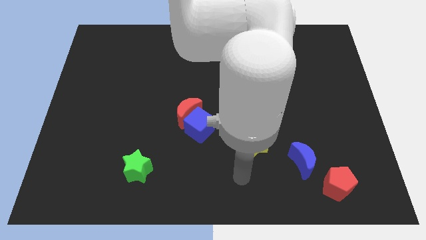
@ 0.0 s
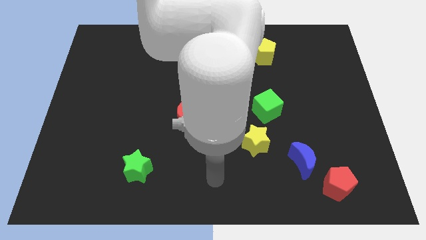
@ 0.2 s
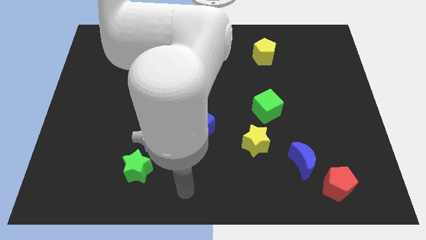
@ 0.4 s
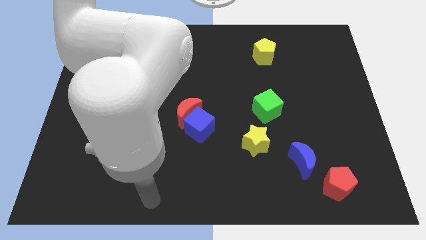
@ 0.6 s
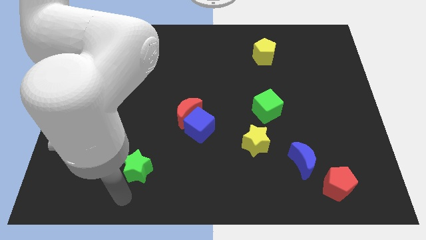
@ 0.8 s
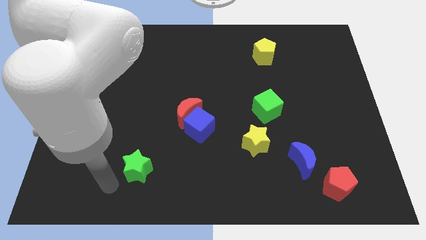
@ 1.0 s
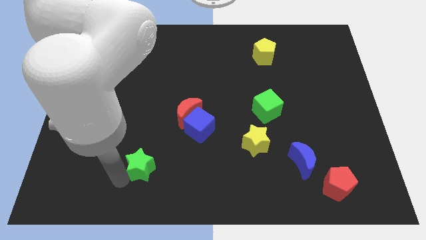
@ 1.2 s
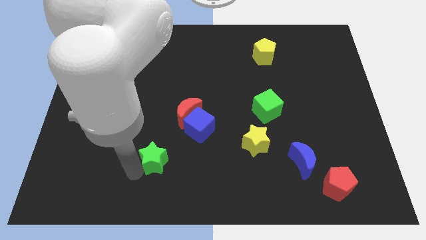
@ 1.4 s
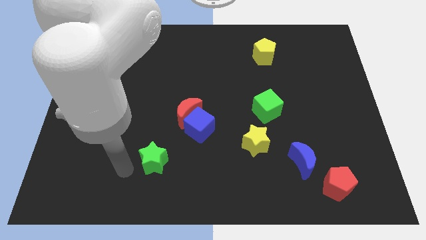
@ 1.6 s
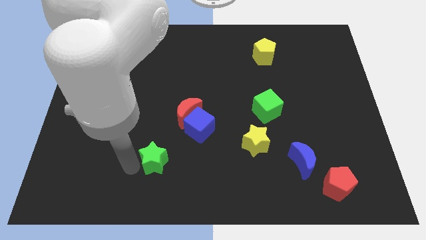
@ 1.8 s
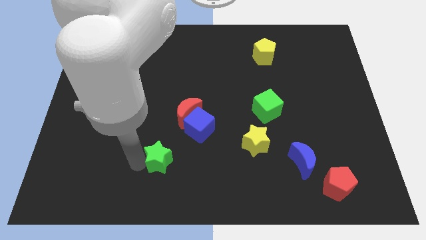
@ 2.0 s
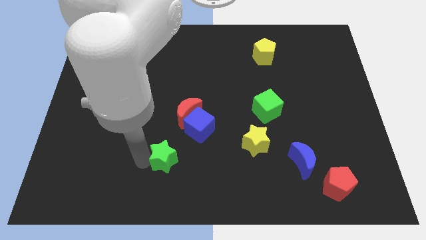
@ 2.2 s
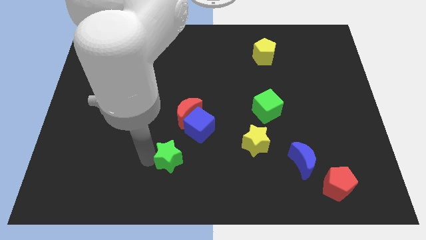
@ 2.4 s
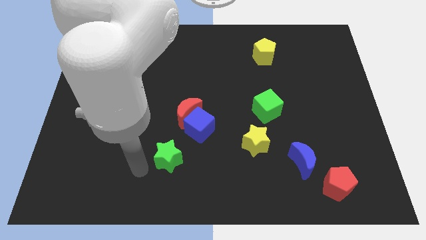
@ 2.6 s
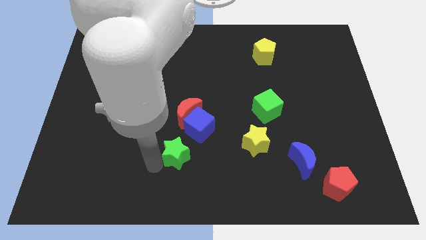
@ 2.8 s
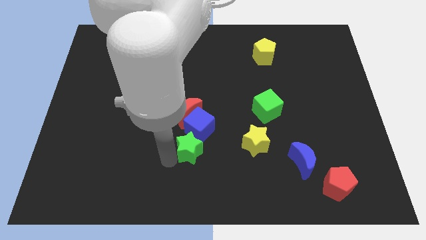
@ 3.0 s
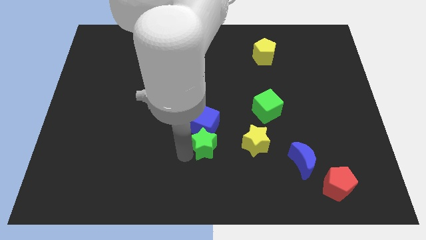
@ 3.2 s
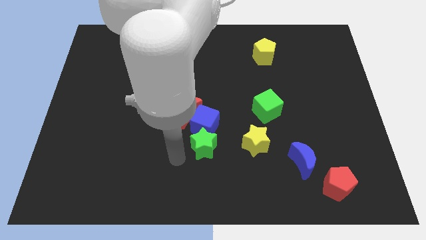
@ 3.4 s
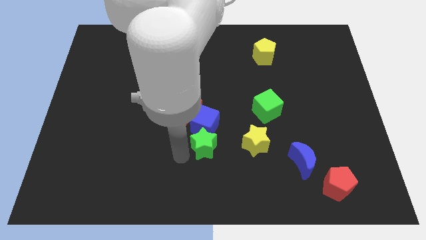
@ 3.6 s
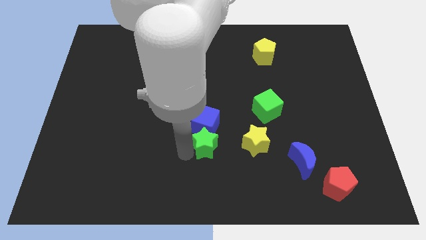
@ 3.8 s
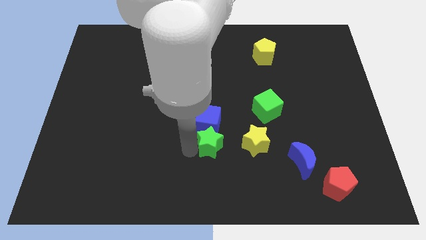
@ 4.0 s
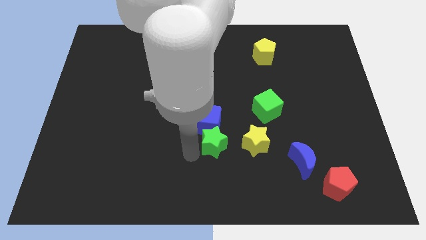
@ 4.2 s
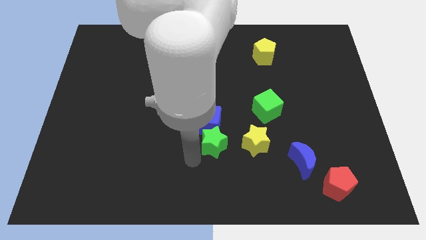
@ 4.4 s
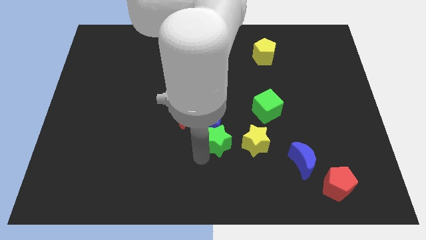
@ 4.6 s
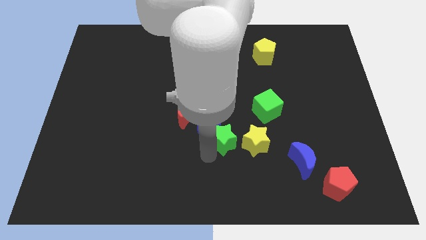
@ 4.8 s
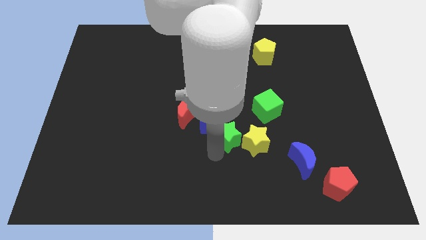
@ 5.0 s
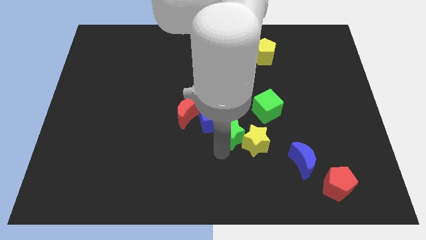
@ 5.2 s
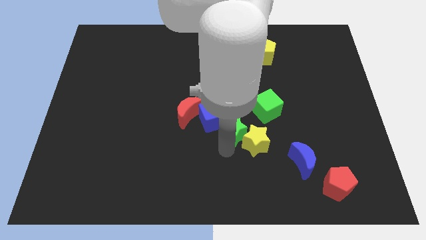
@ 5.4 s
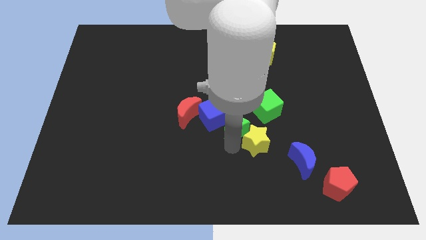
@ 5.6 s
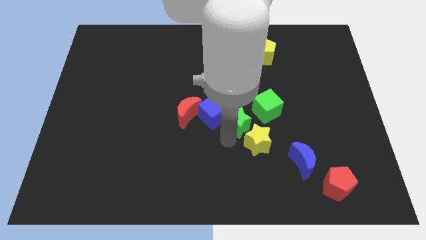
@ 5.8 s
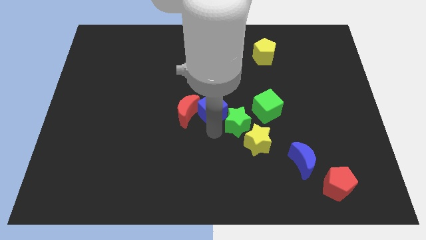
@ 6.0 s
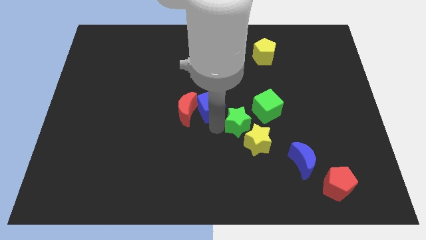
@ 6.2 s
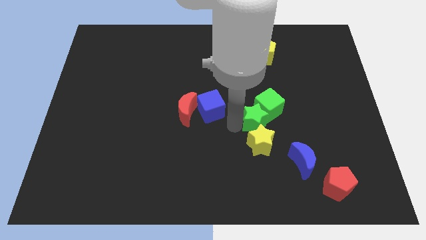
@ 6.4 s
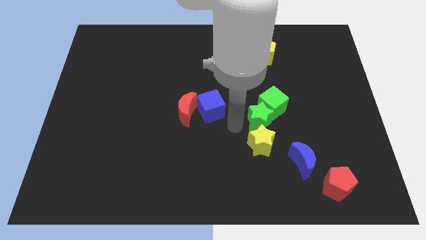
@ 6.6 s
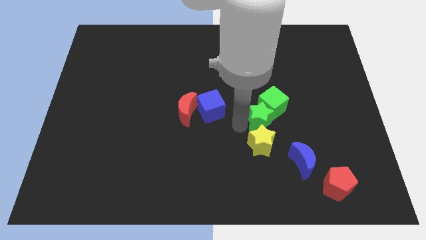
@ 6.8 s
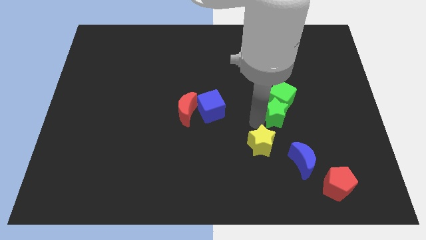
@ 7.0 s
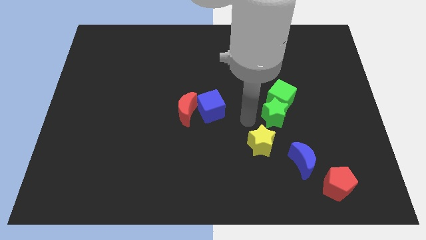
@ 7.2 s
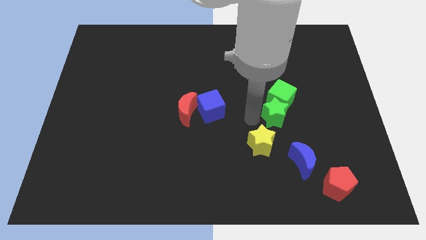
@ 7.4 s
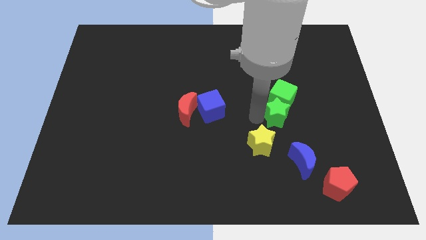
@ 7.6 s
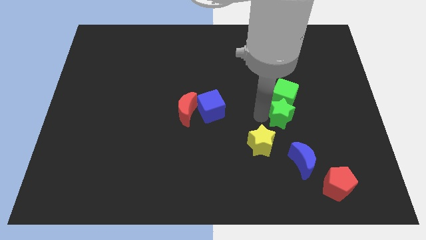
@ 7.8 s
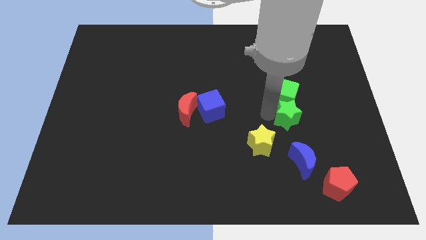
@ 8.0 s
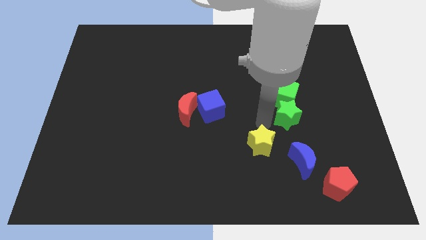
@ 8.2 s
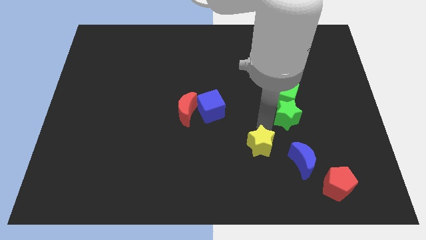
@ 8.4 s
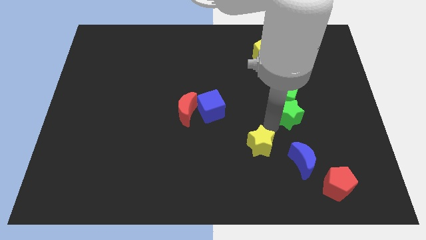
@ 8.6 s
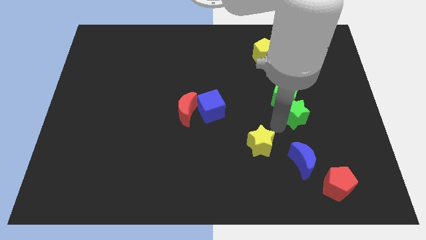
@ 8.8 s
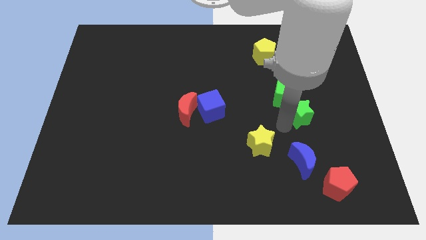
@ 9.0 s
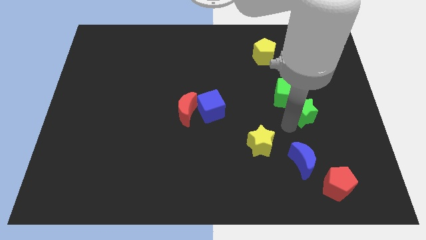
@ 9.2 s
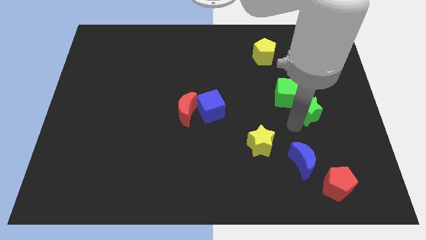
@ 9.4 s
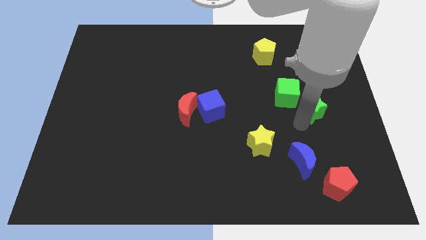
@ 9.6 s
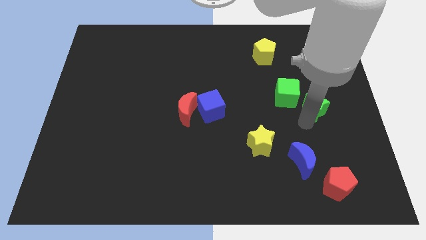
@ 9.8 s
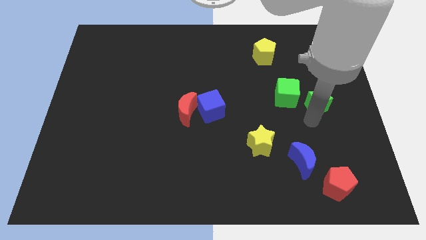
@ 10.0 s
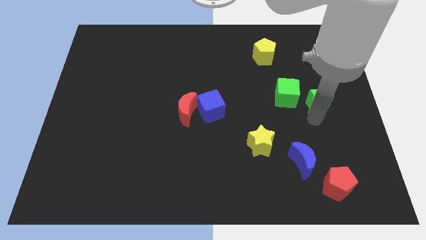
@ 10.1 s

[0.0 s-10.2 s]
push the green star to the right side of the board

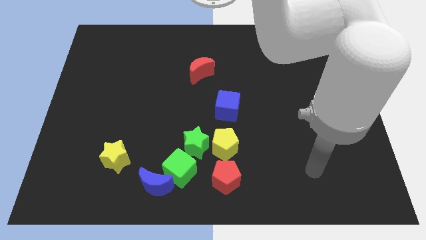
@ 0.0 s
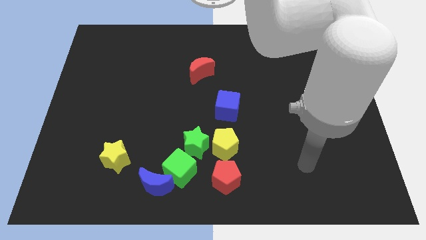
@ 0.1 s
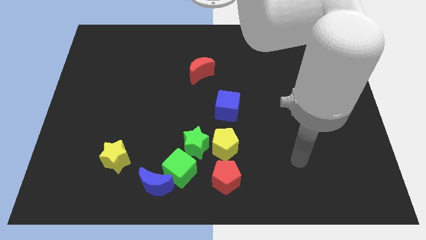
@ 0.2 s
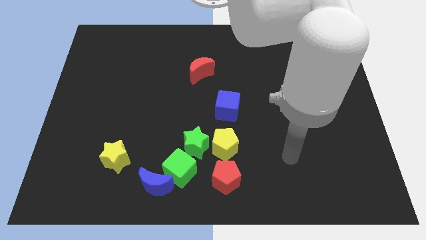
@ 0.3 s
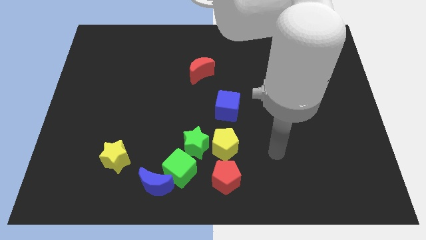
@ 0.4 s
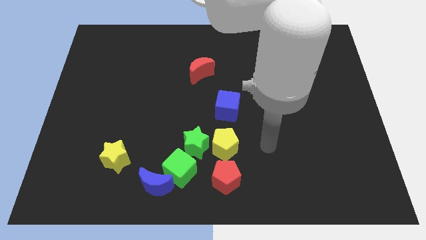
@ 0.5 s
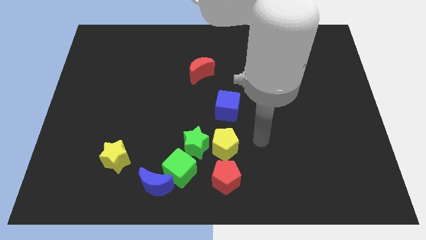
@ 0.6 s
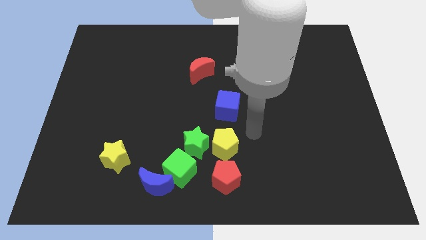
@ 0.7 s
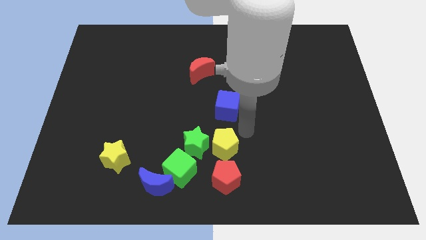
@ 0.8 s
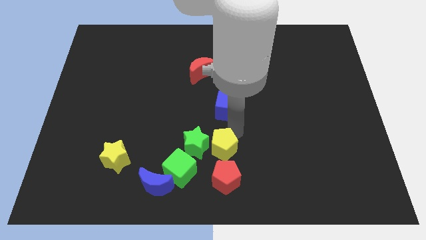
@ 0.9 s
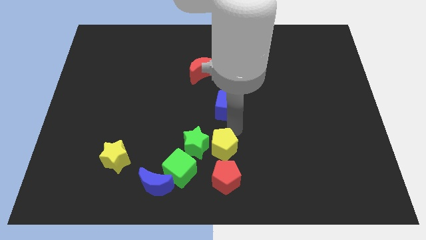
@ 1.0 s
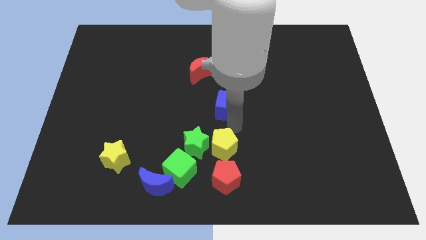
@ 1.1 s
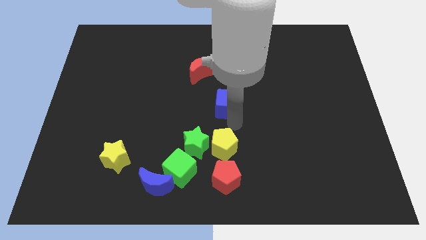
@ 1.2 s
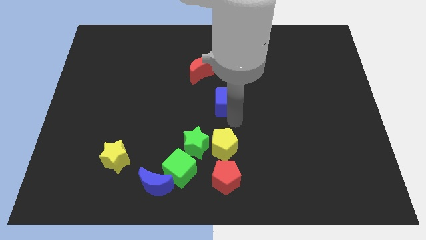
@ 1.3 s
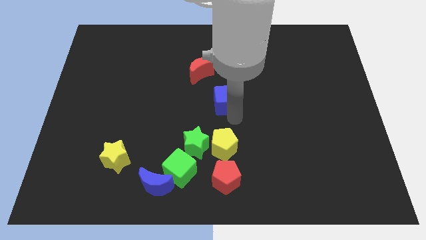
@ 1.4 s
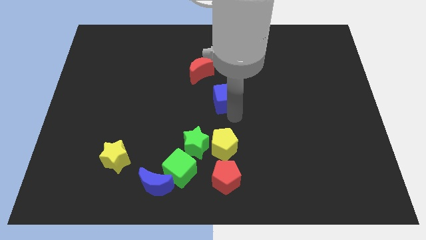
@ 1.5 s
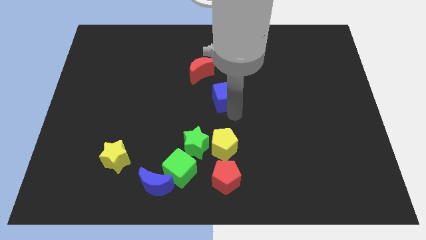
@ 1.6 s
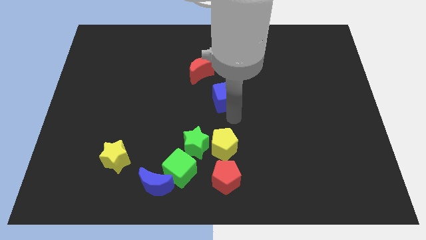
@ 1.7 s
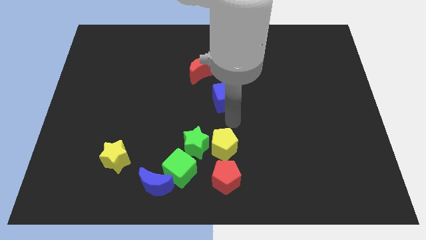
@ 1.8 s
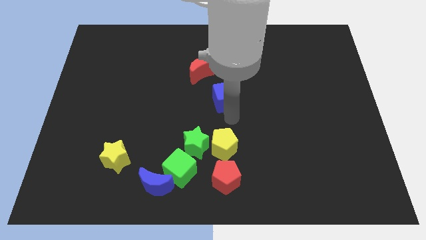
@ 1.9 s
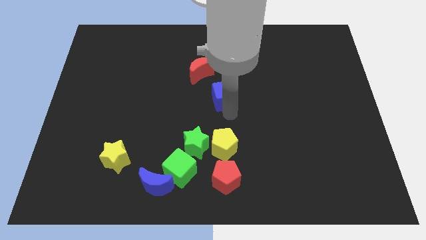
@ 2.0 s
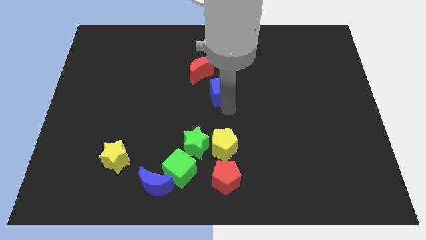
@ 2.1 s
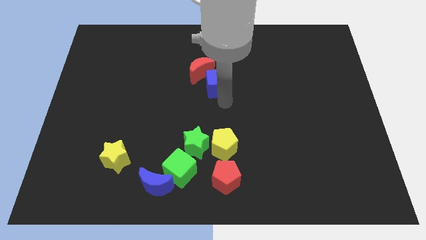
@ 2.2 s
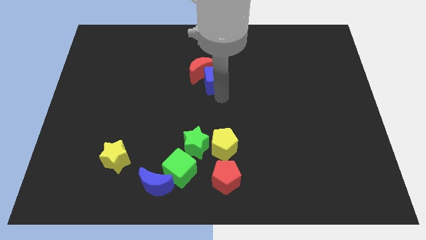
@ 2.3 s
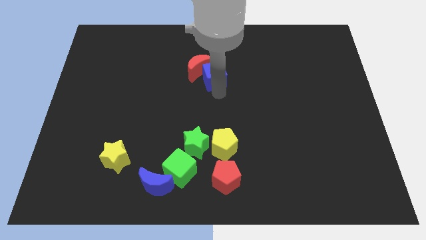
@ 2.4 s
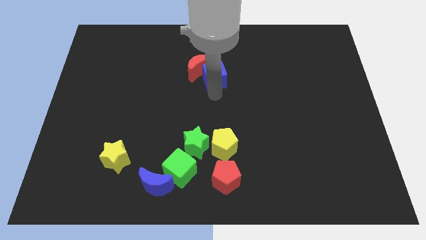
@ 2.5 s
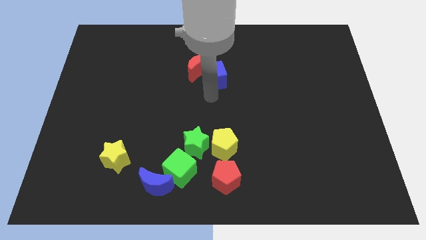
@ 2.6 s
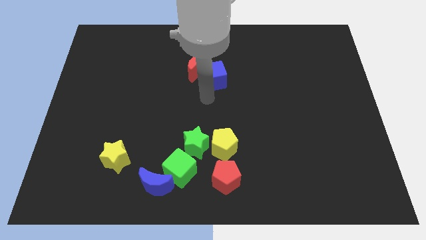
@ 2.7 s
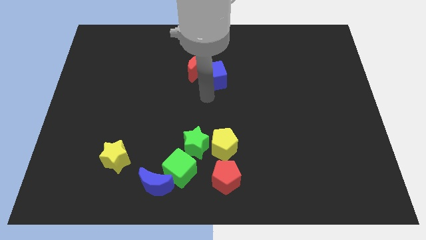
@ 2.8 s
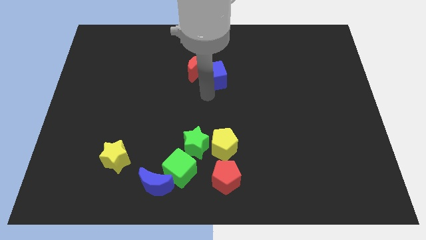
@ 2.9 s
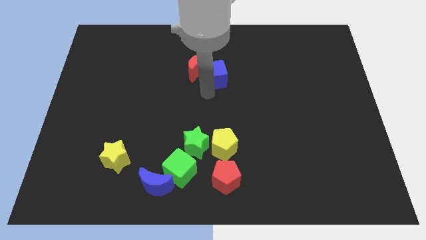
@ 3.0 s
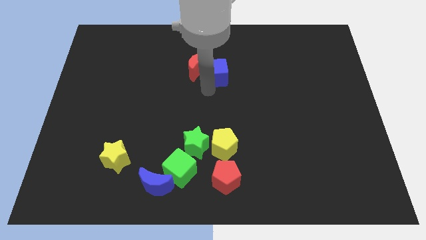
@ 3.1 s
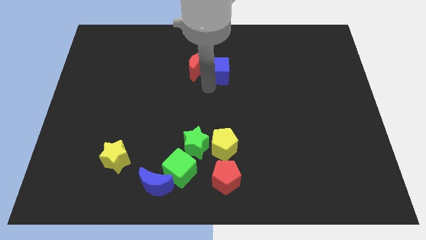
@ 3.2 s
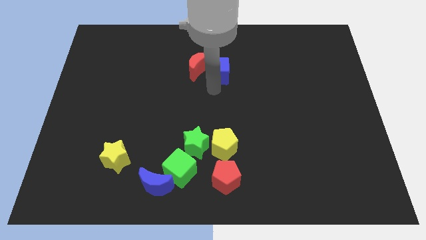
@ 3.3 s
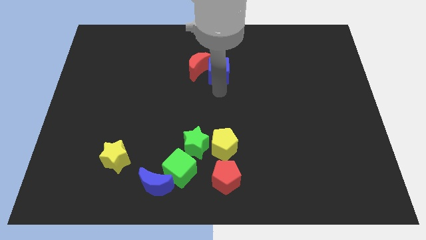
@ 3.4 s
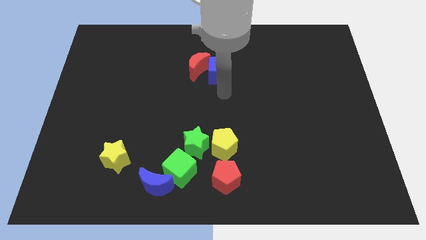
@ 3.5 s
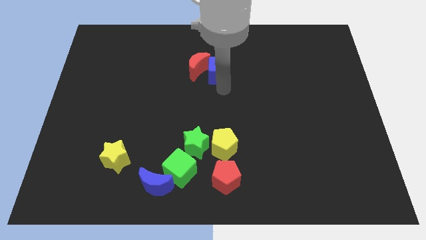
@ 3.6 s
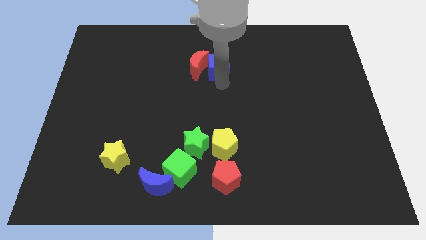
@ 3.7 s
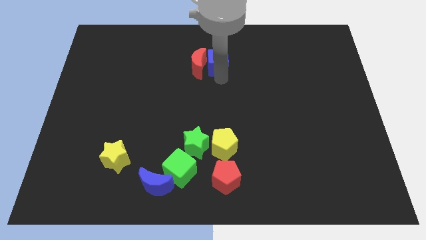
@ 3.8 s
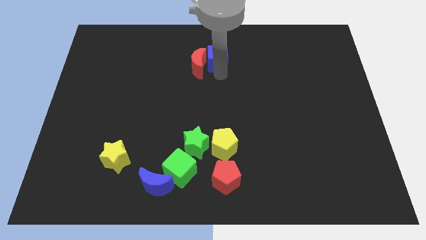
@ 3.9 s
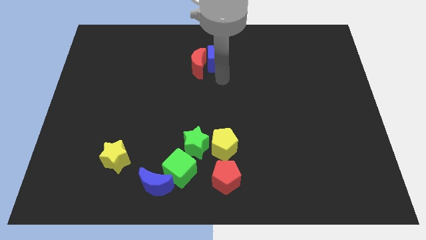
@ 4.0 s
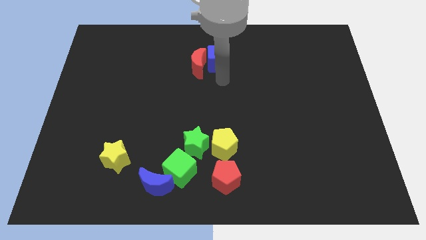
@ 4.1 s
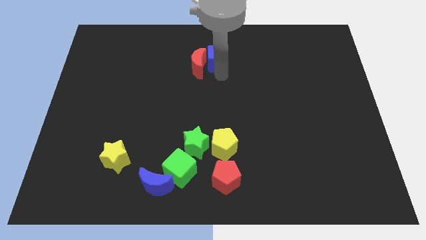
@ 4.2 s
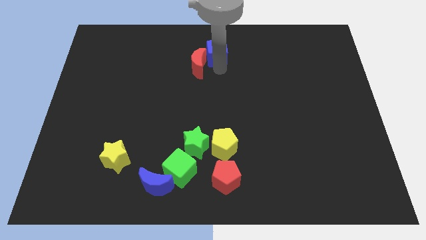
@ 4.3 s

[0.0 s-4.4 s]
slide the blue cube to the towards your base
